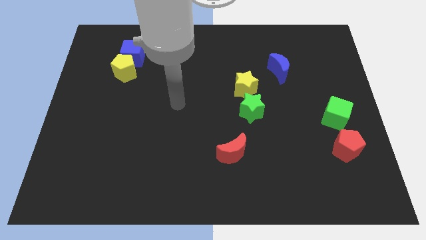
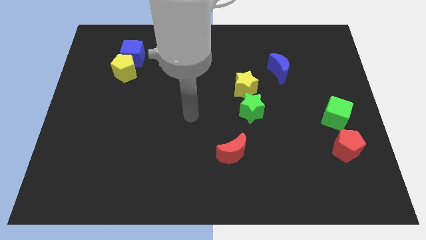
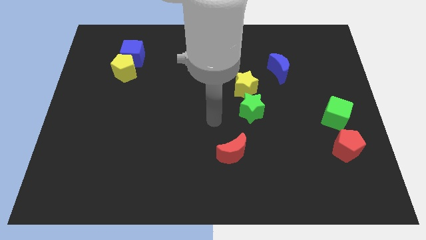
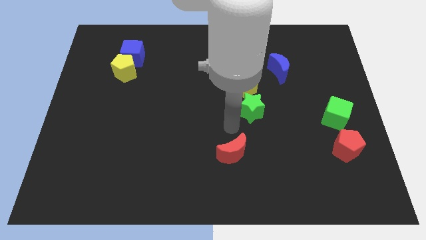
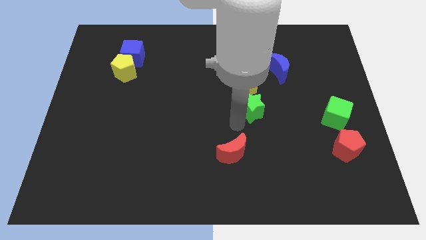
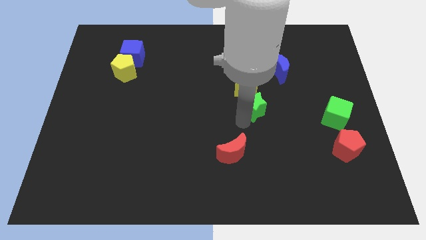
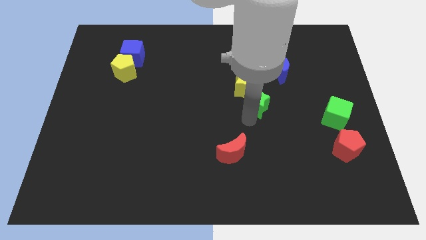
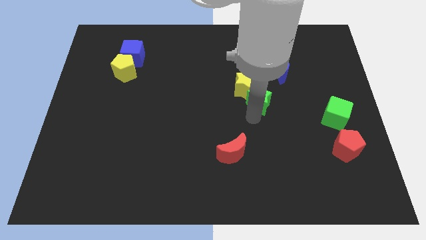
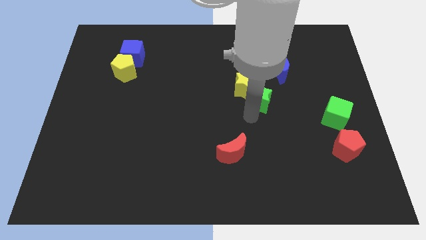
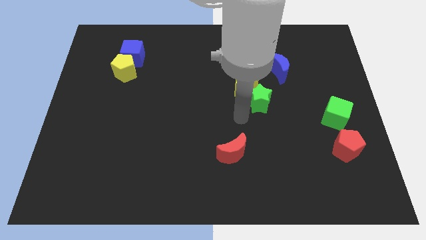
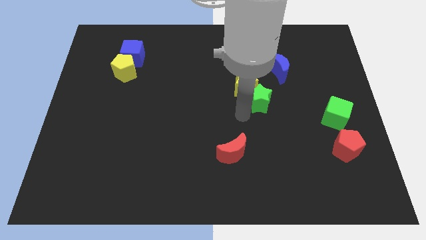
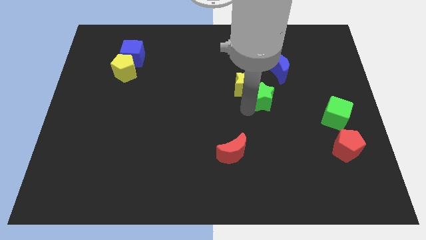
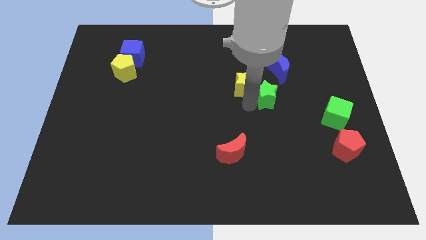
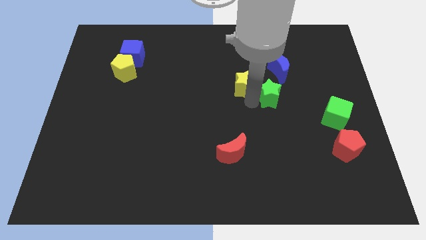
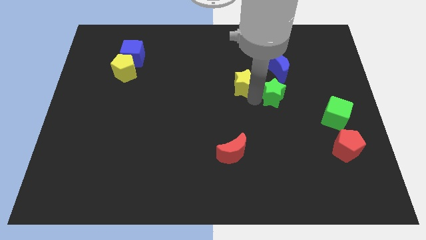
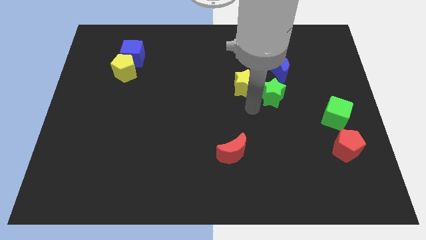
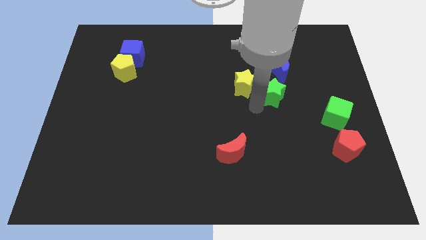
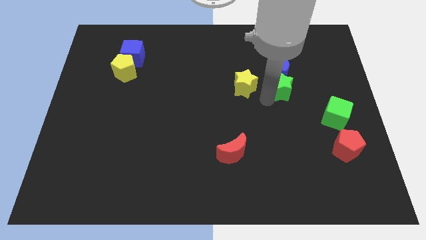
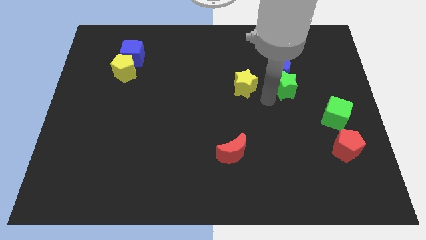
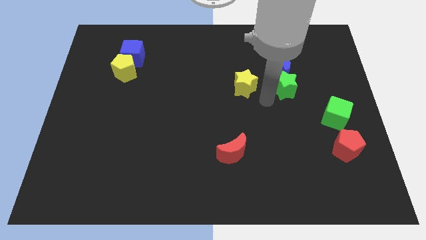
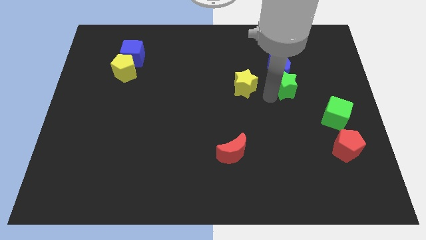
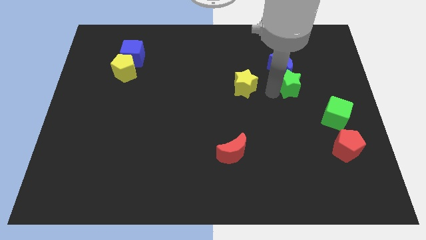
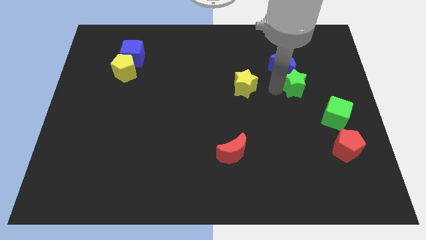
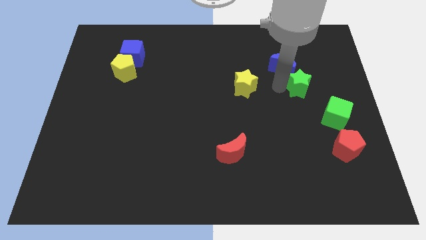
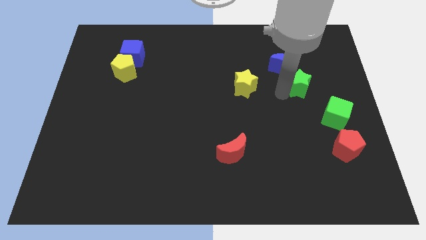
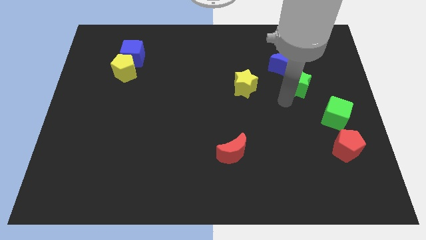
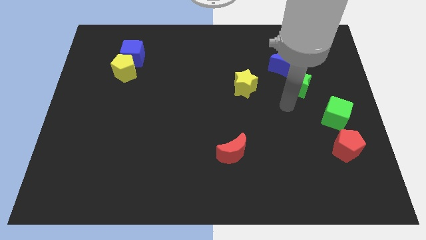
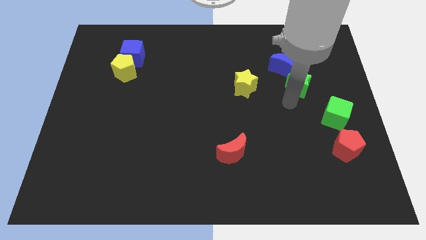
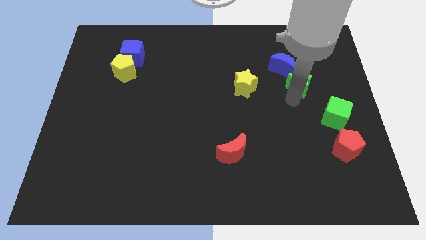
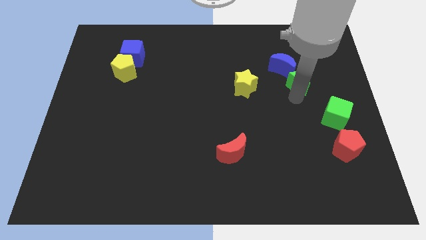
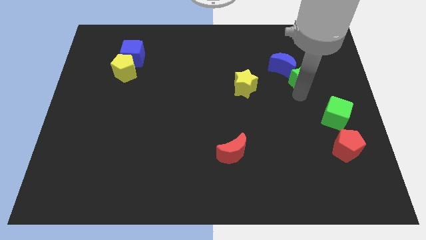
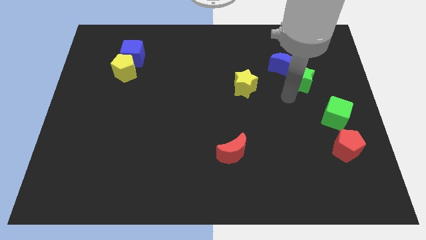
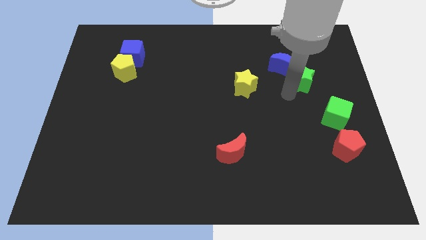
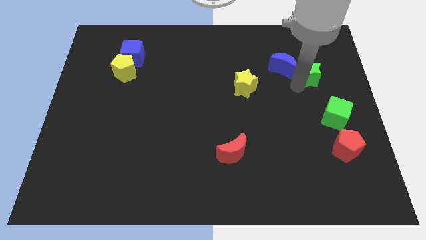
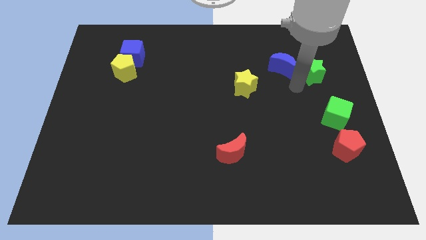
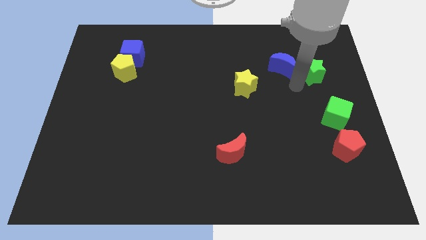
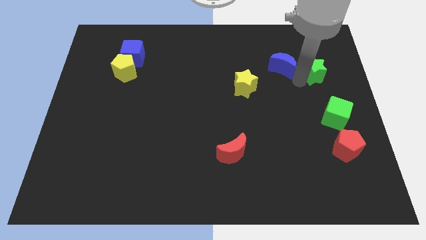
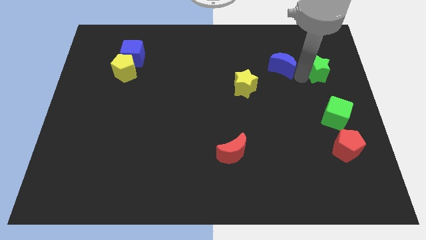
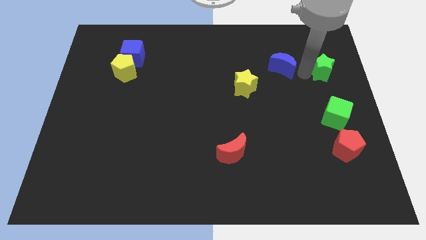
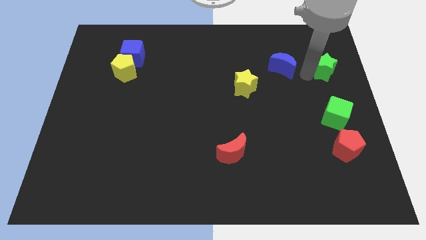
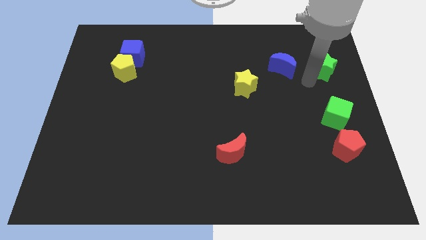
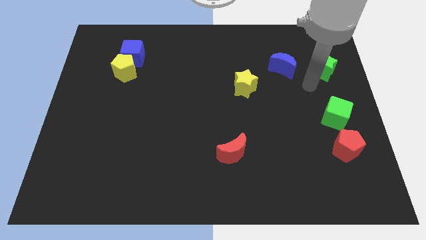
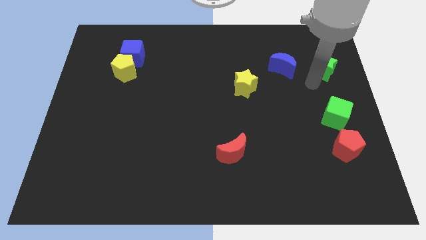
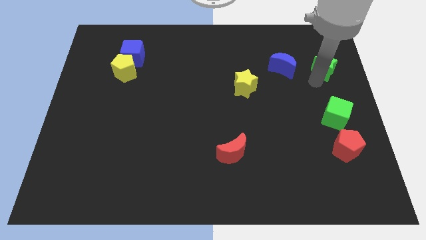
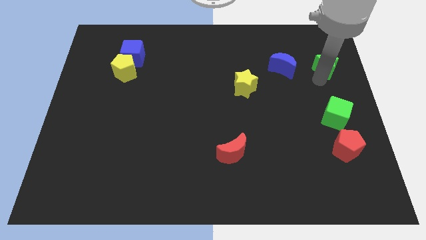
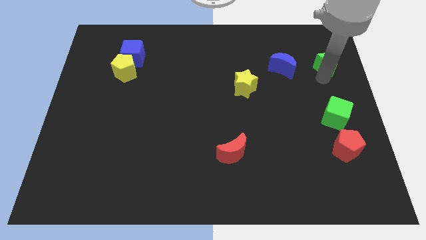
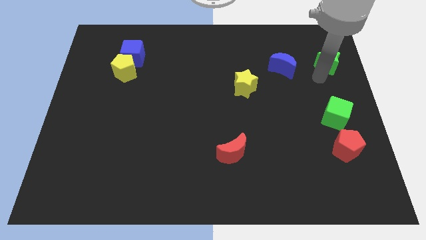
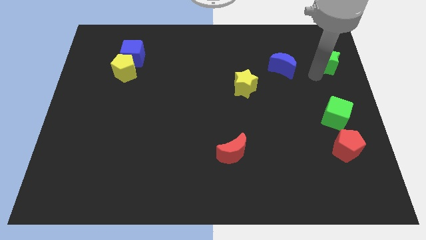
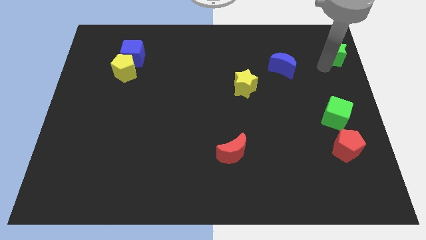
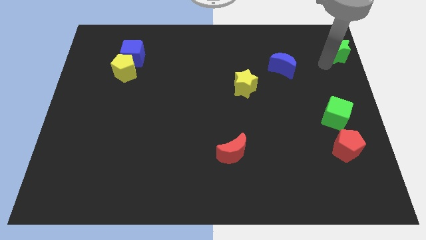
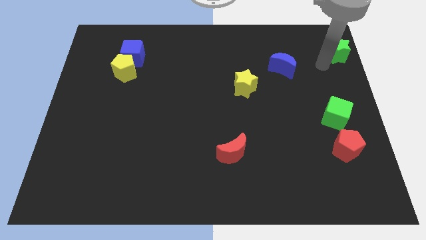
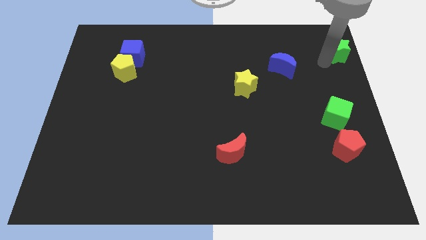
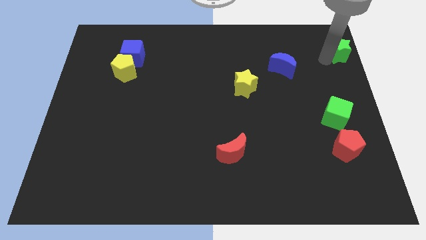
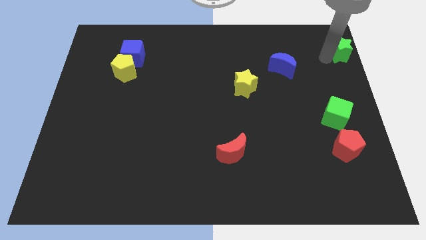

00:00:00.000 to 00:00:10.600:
move the green star to the top right corner

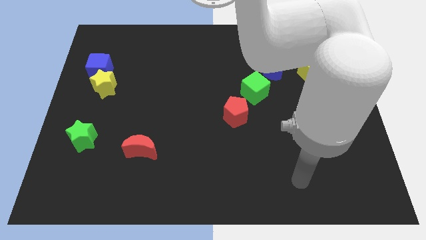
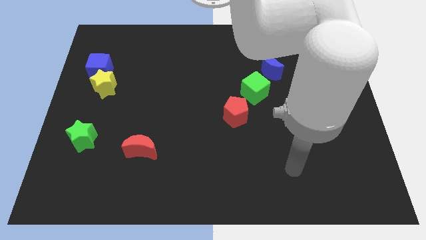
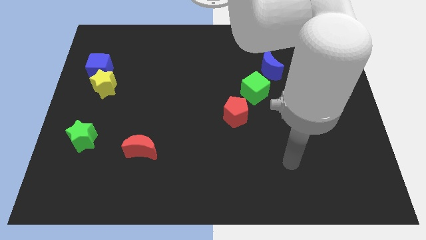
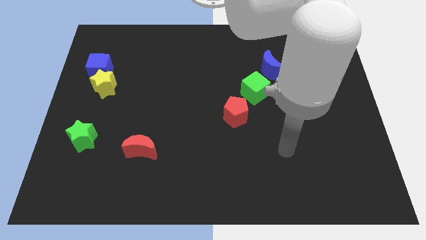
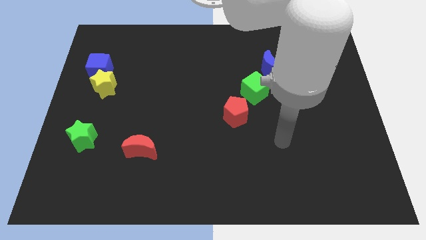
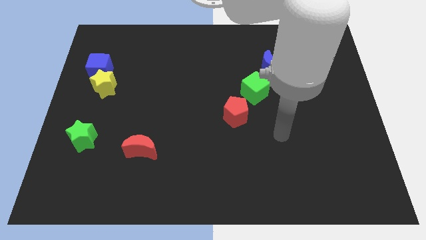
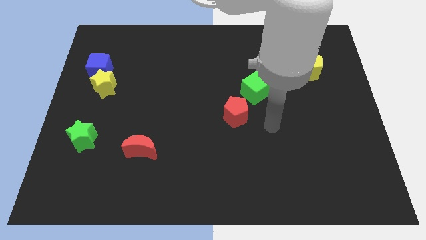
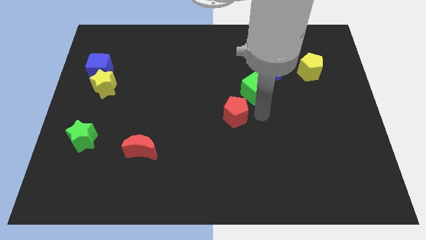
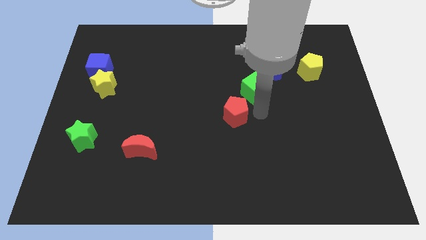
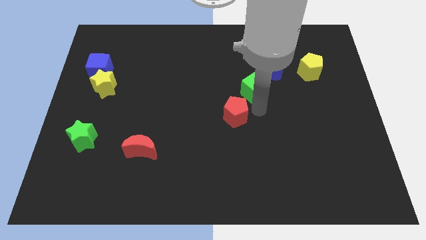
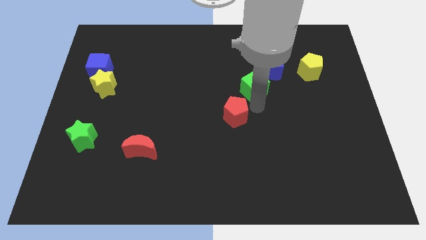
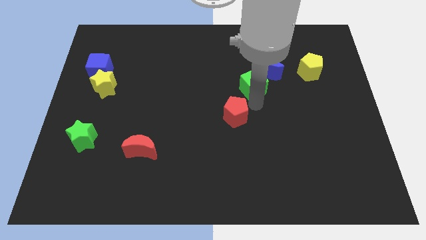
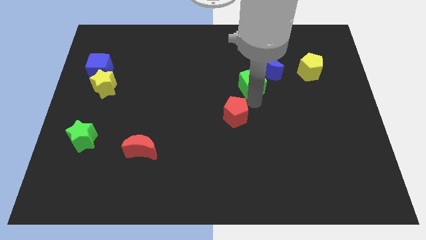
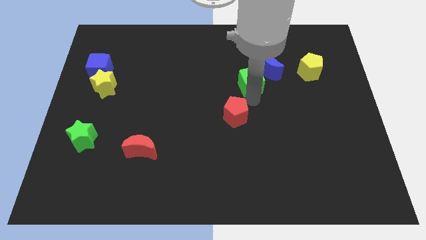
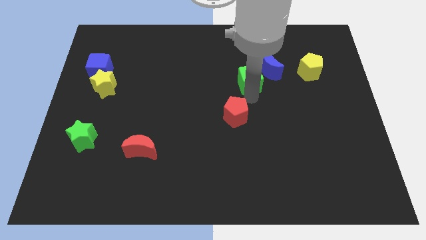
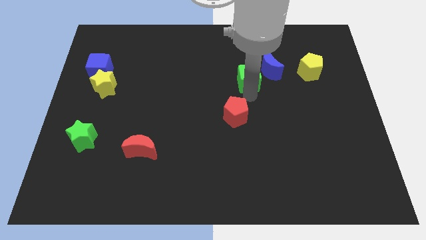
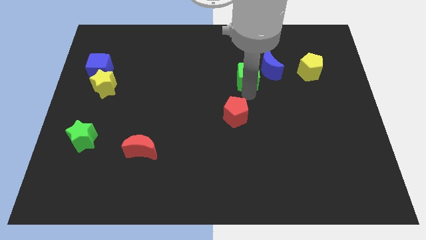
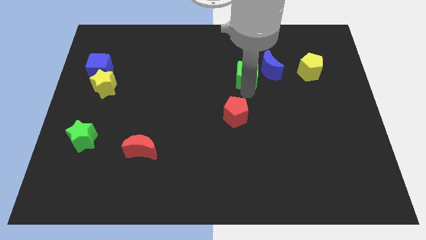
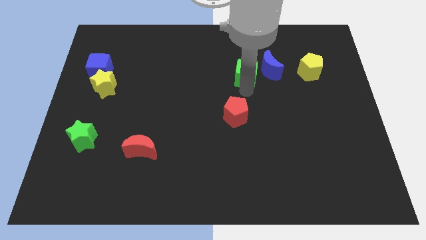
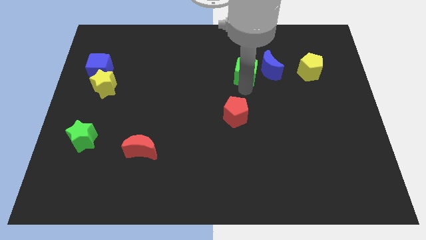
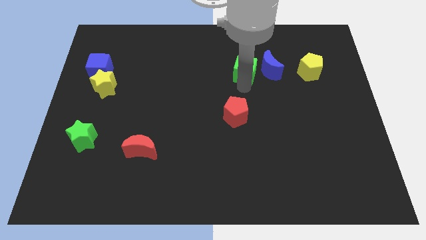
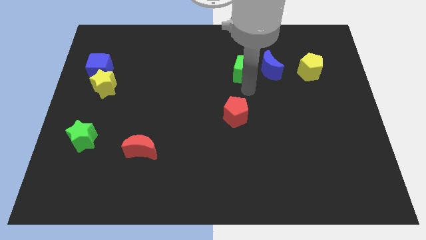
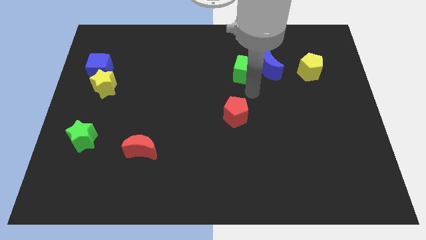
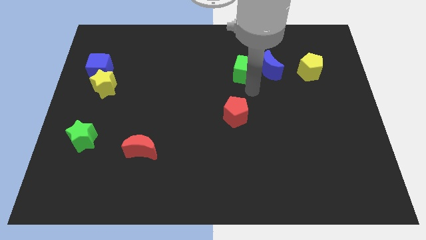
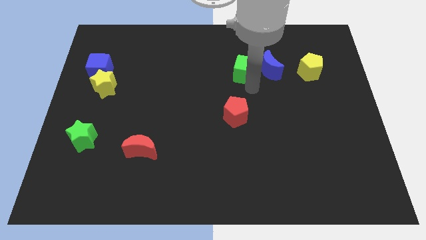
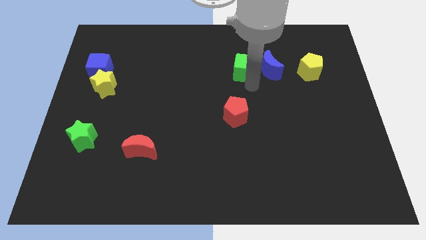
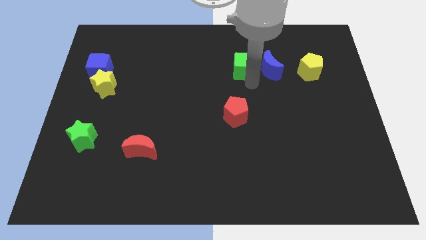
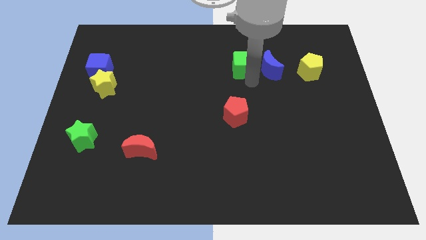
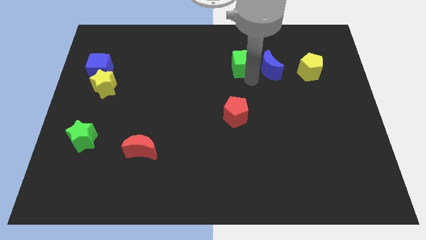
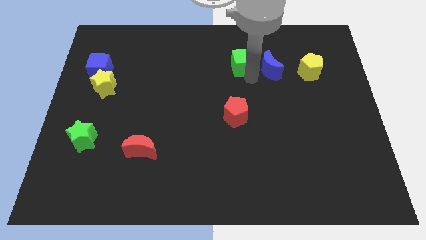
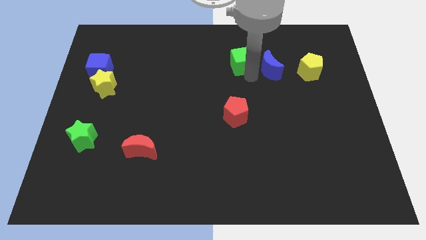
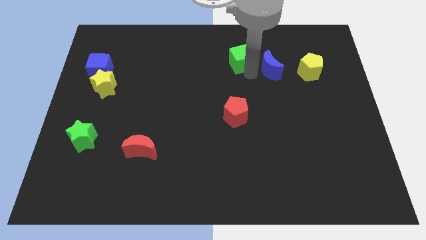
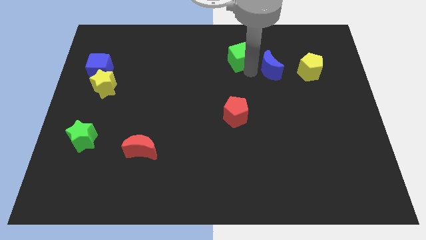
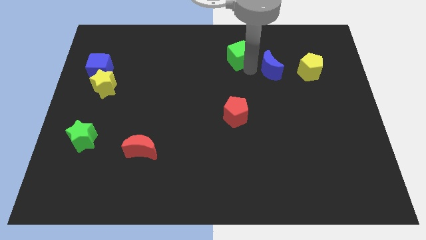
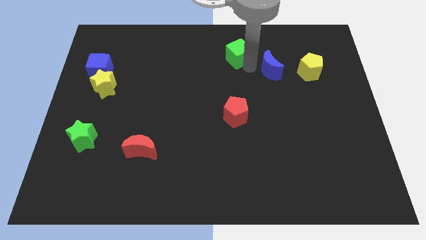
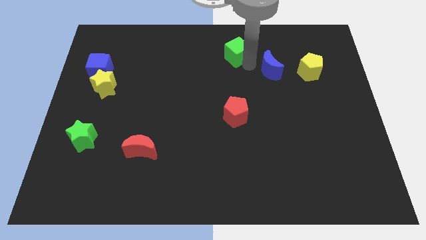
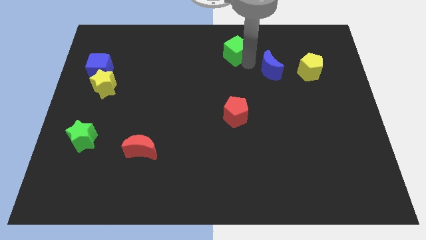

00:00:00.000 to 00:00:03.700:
put the green cube to the towards your base
